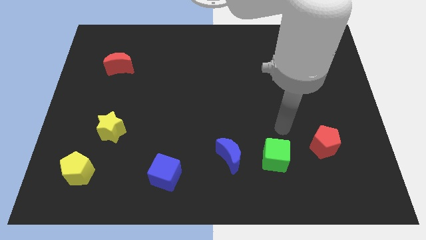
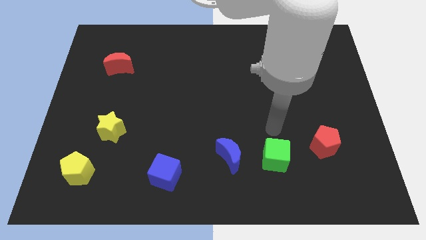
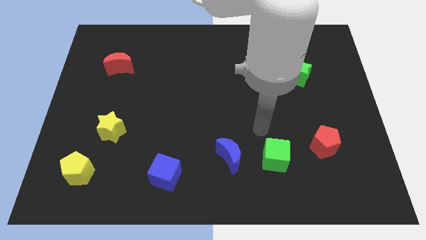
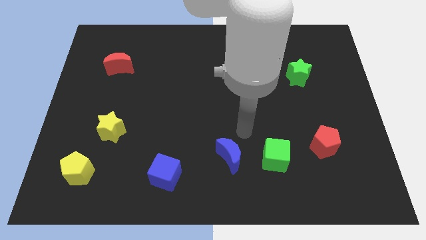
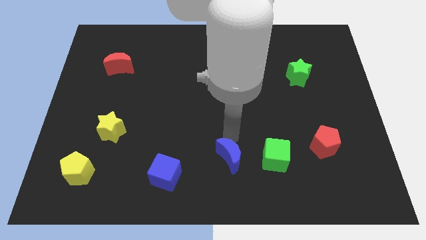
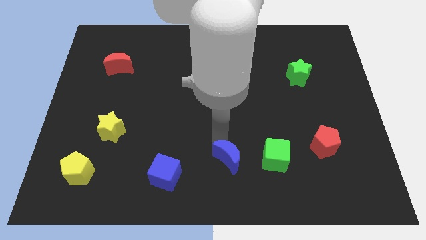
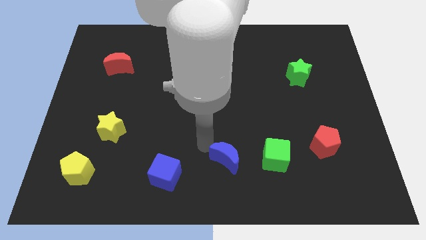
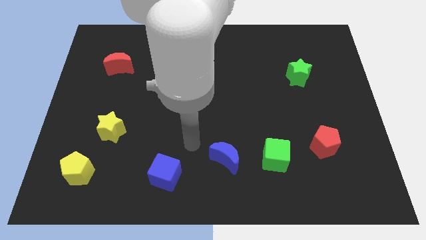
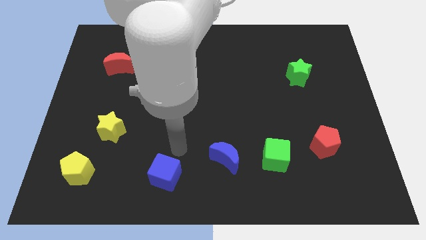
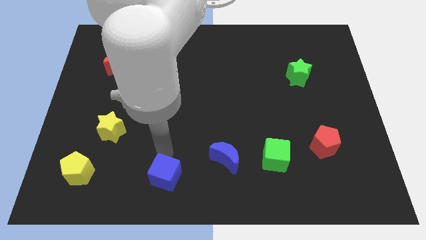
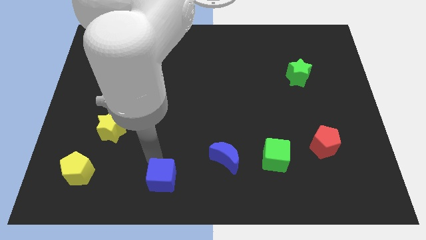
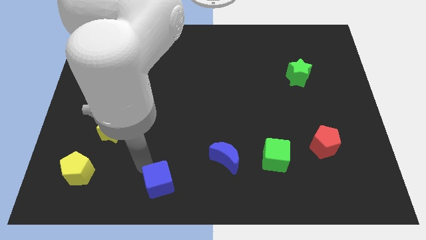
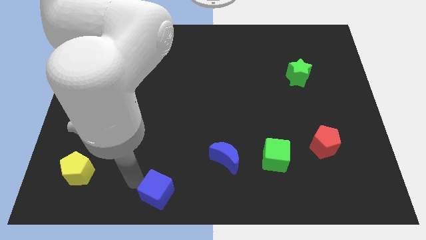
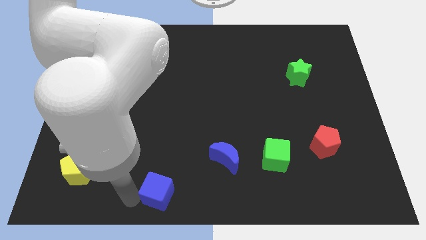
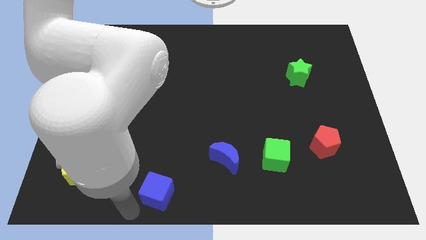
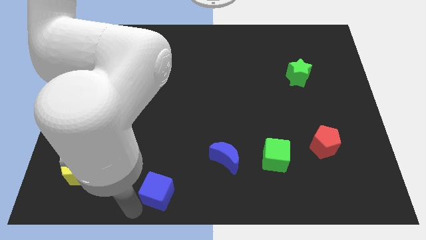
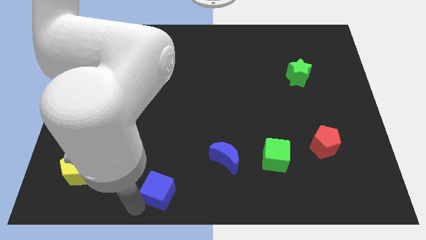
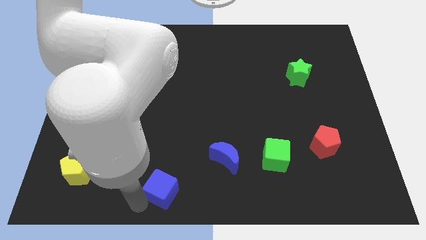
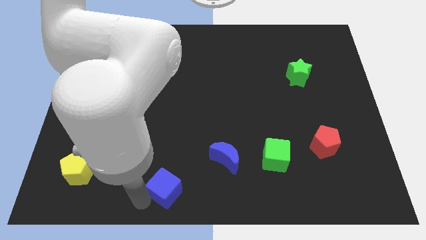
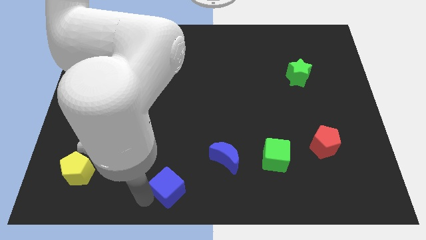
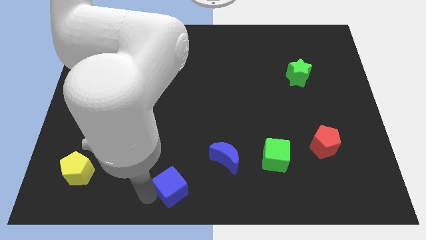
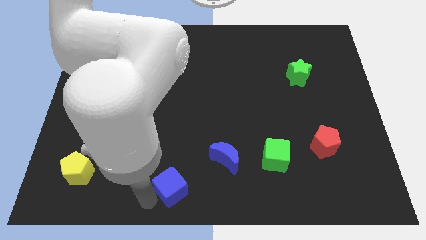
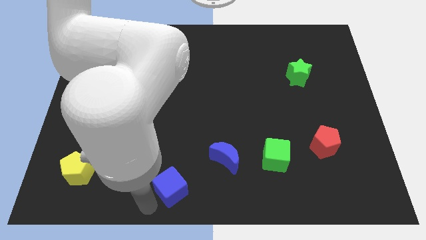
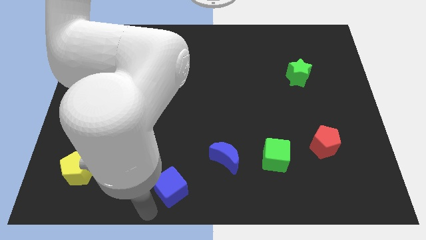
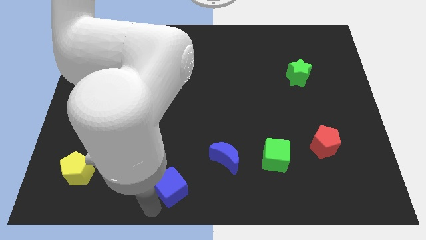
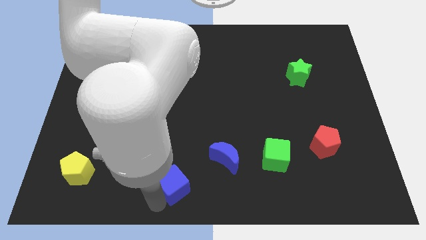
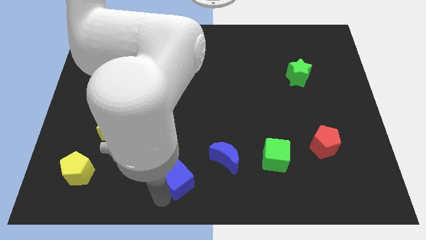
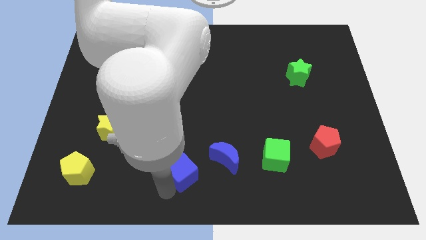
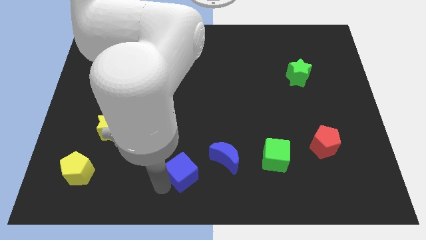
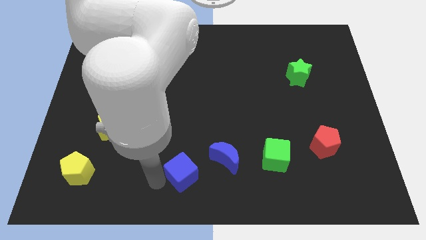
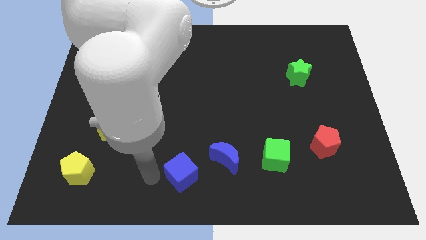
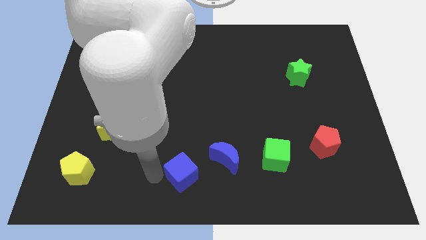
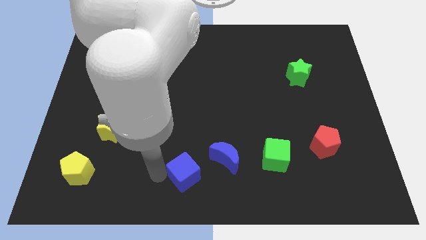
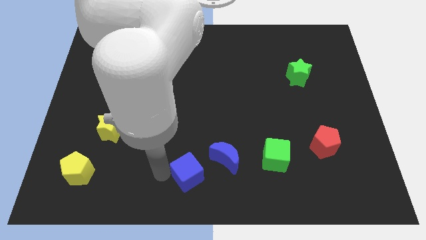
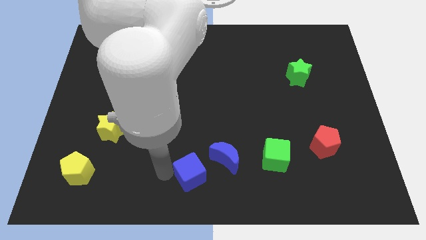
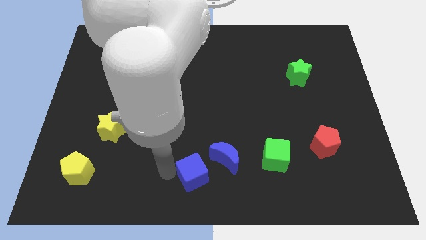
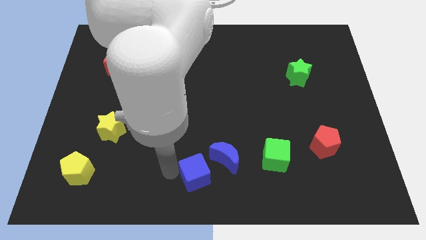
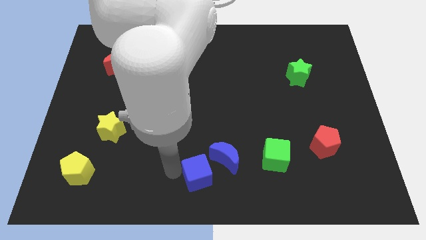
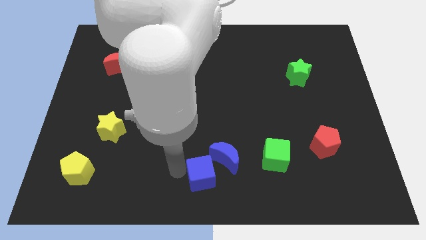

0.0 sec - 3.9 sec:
move the blue cube right slightly

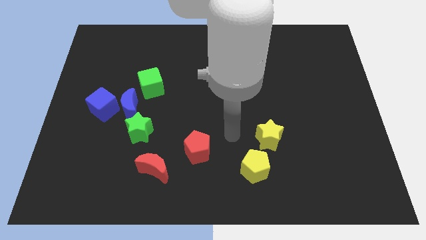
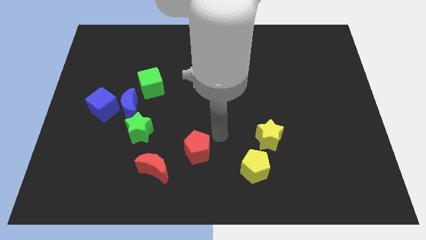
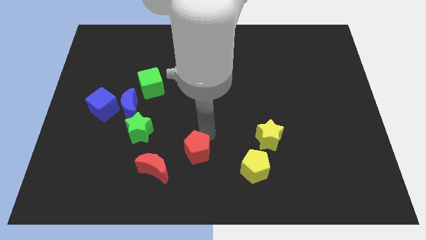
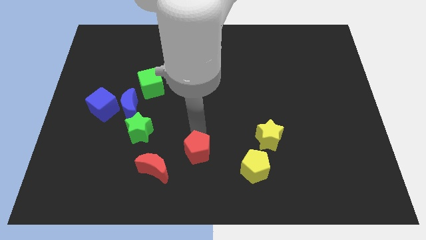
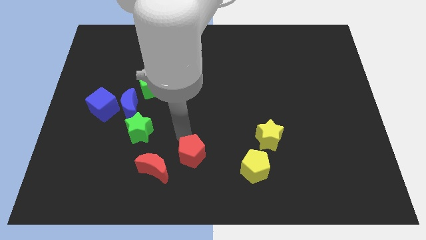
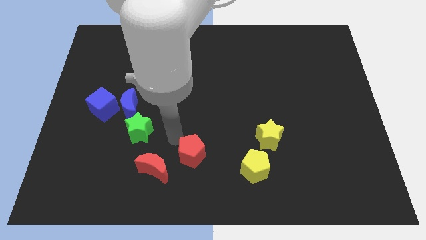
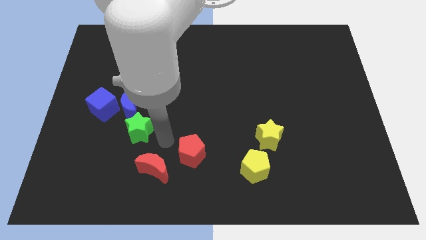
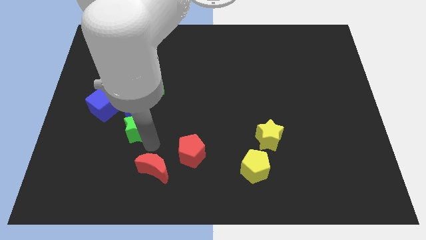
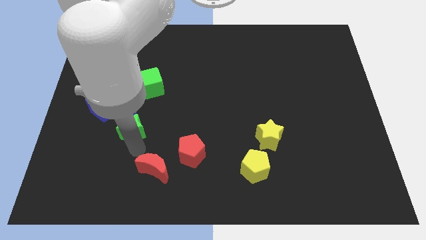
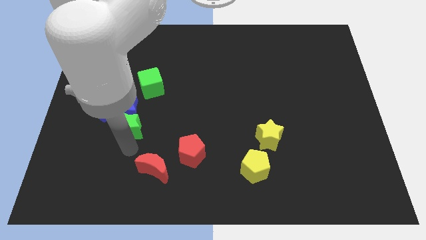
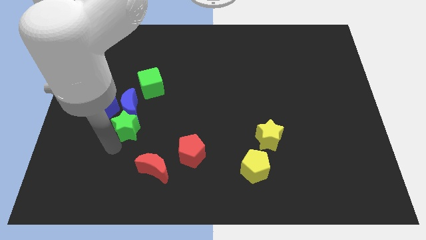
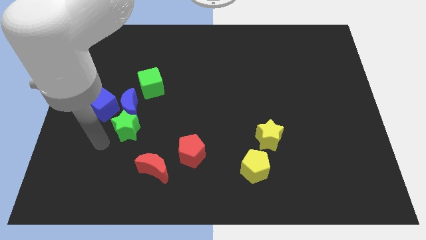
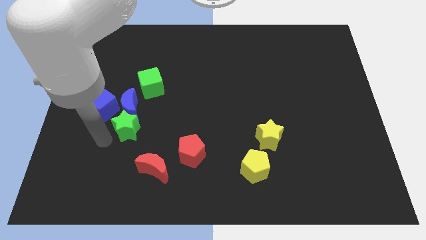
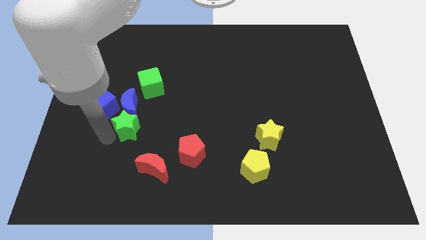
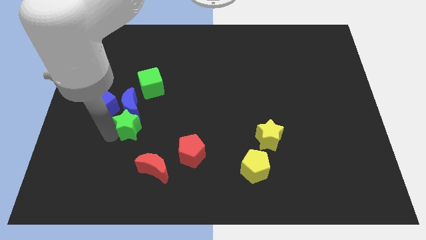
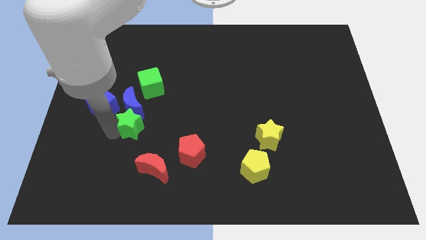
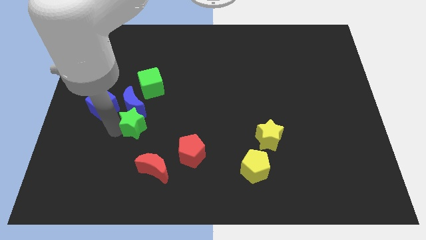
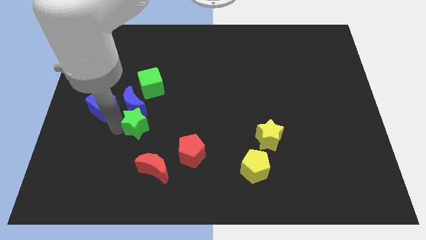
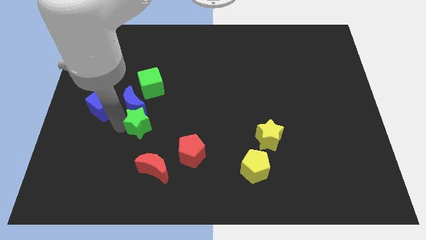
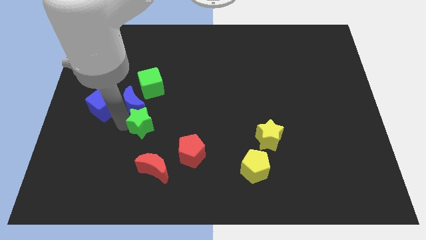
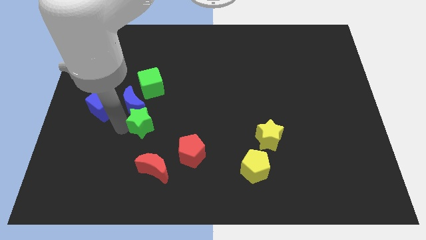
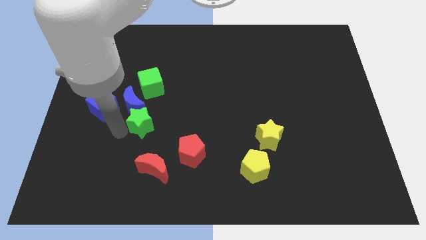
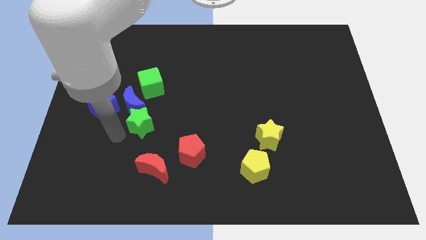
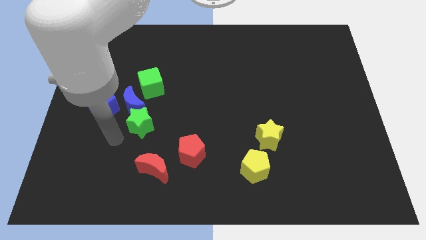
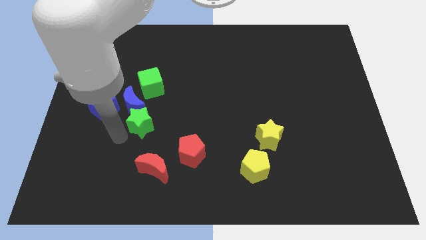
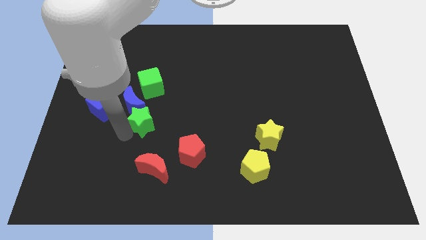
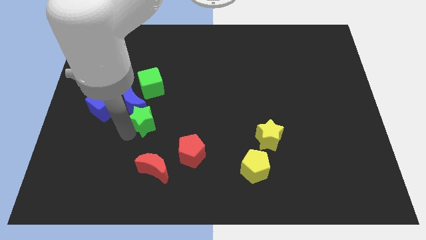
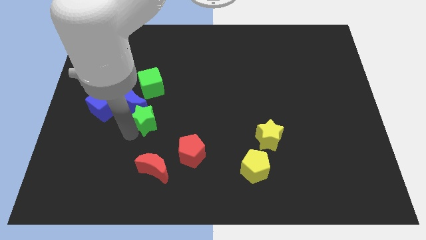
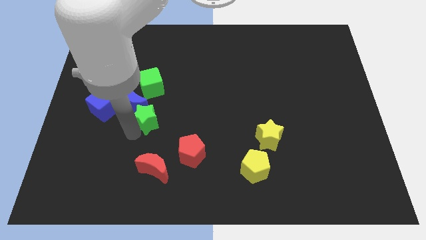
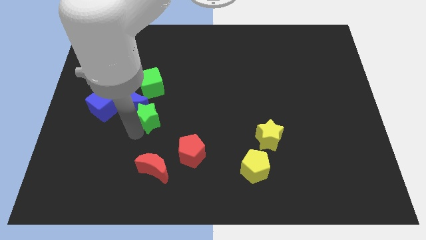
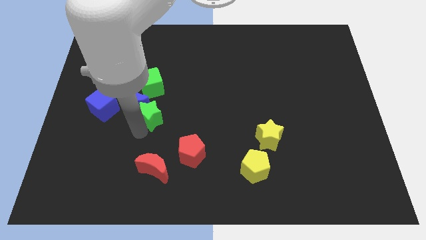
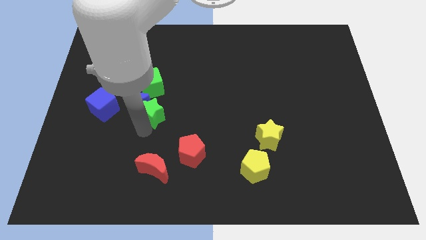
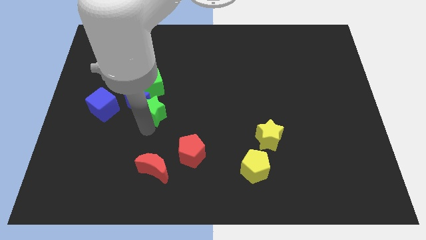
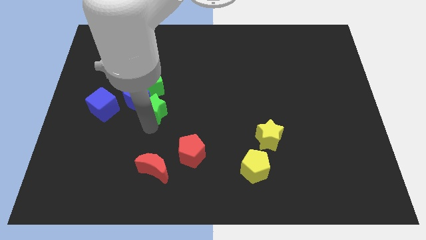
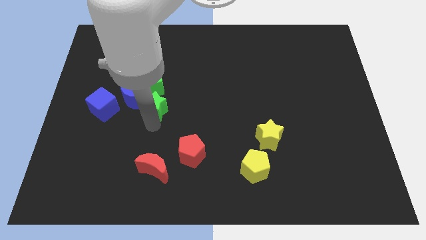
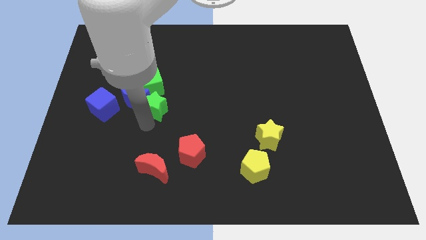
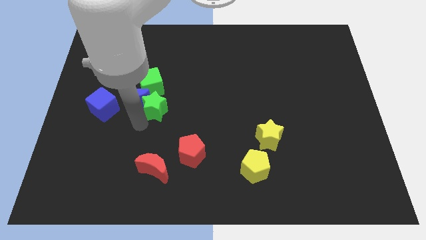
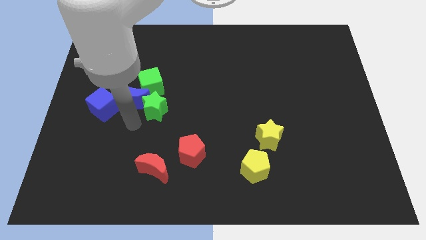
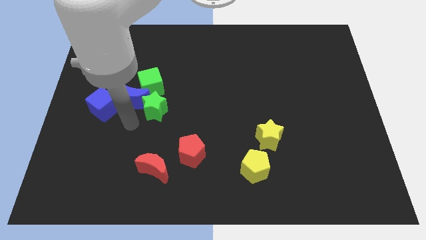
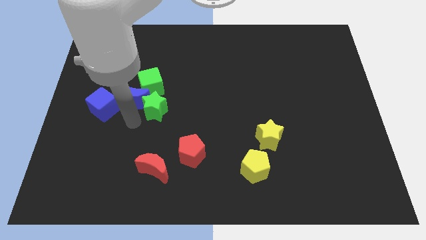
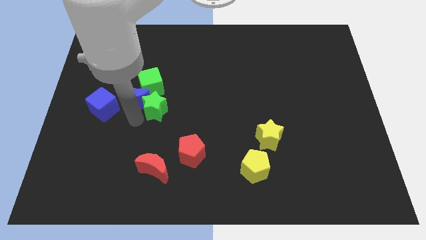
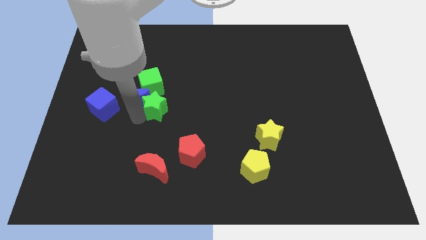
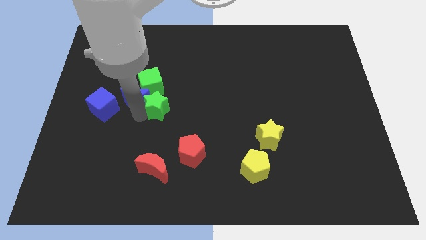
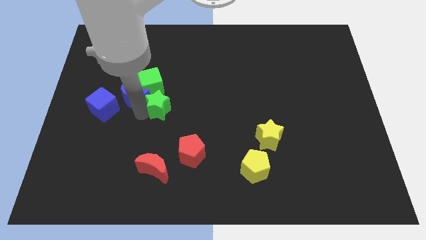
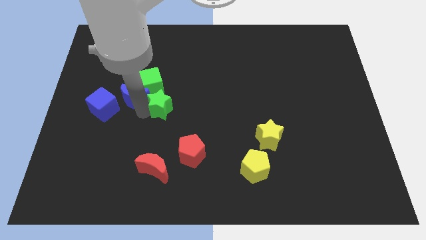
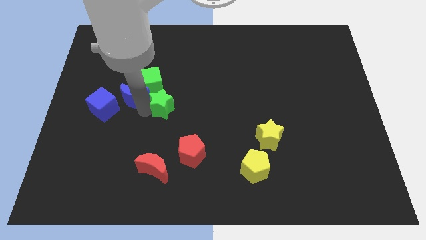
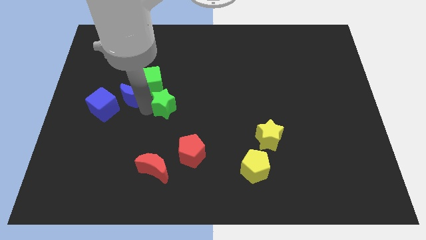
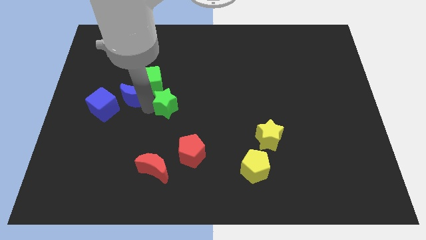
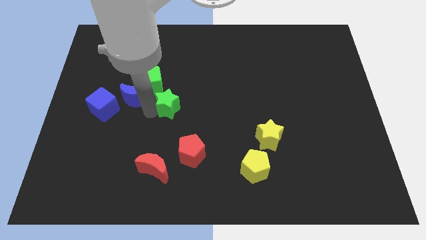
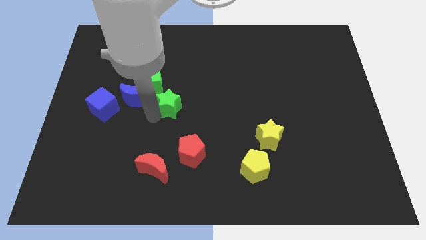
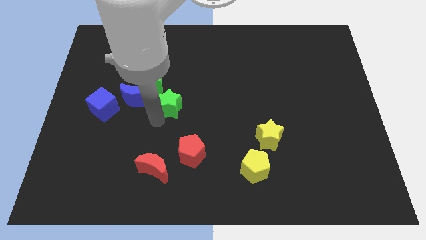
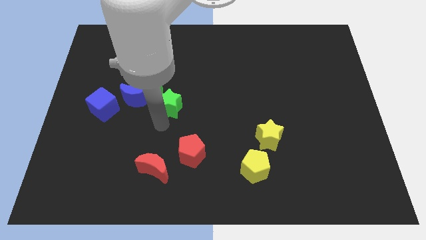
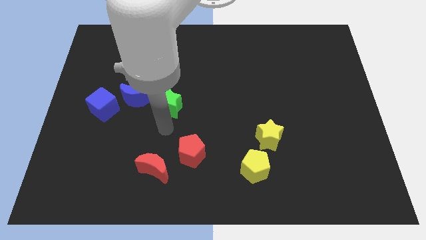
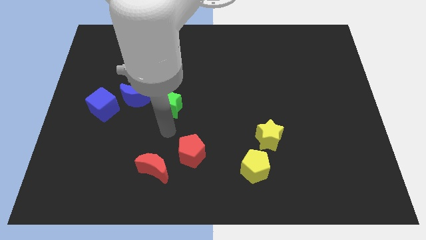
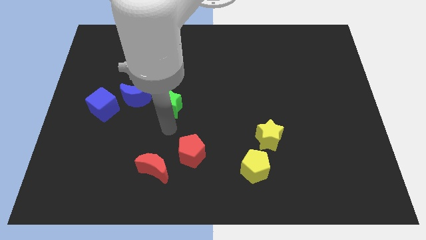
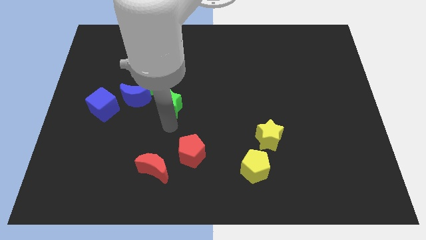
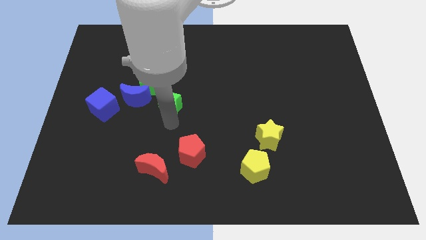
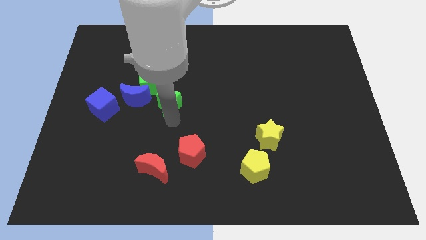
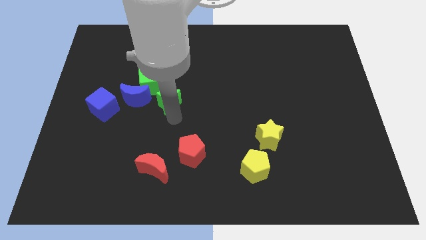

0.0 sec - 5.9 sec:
move the green star upwards slightly
